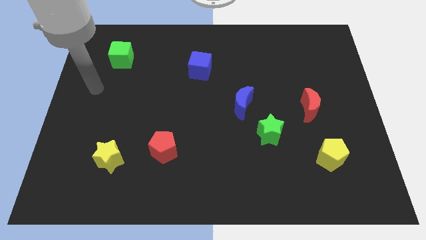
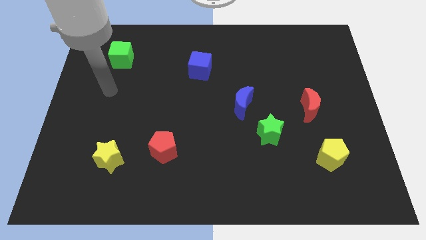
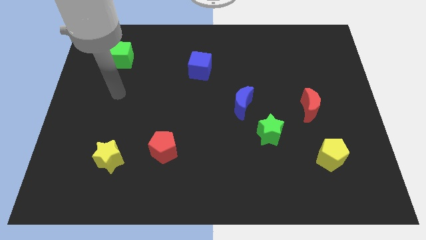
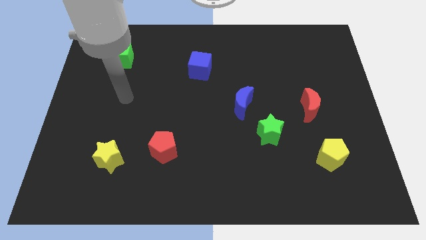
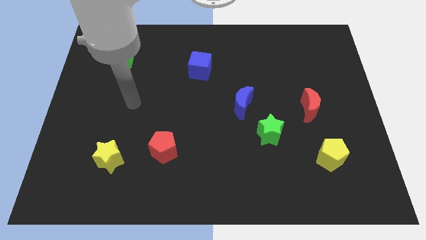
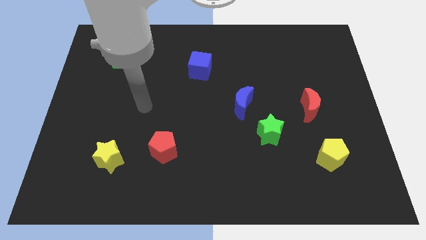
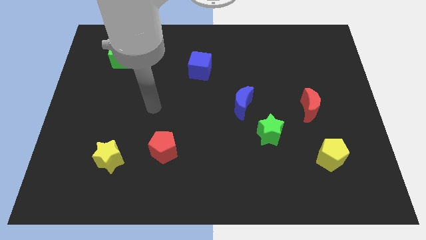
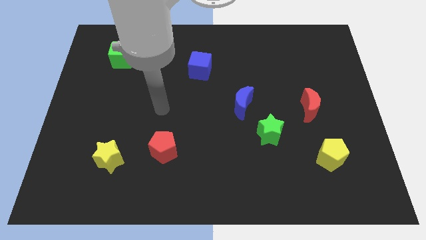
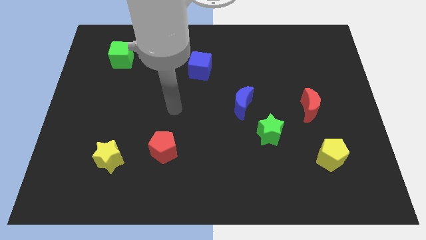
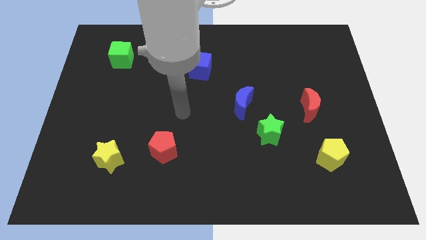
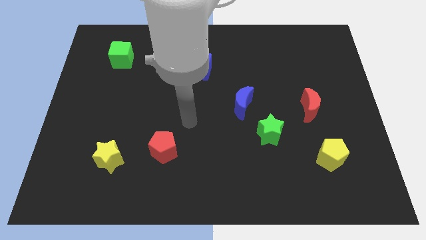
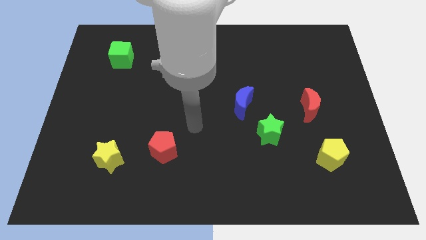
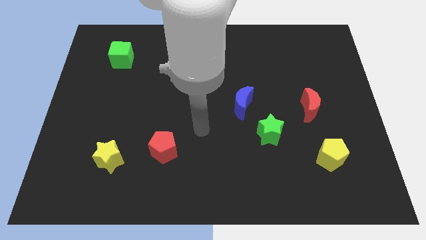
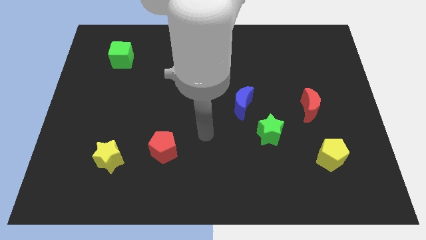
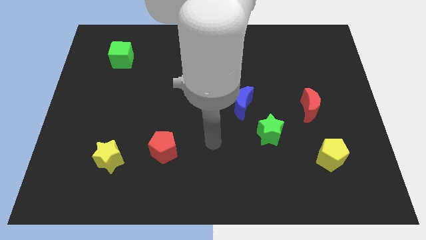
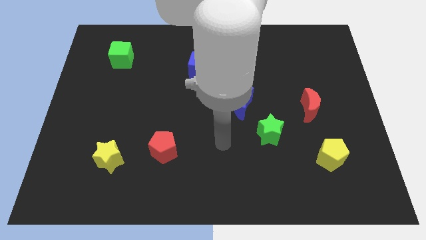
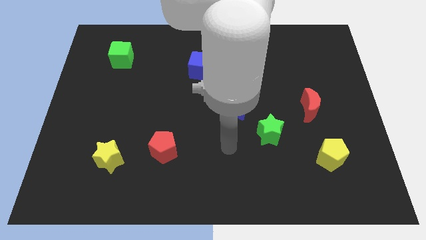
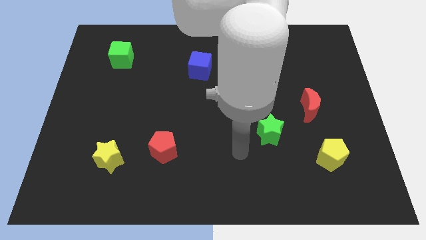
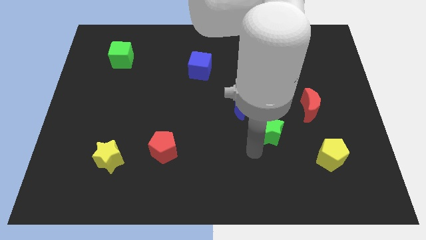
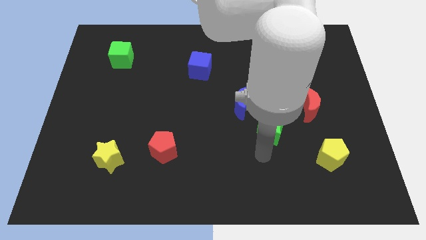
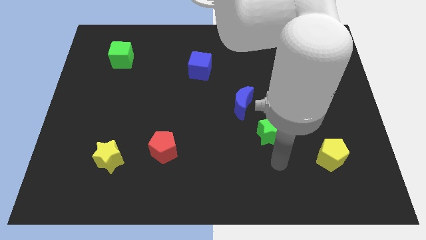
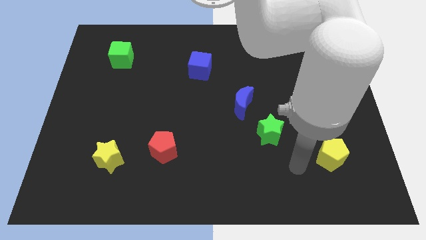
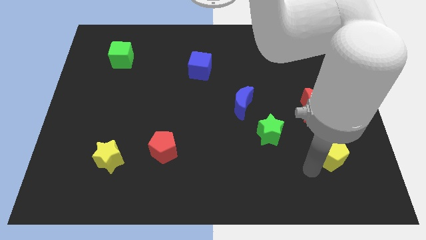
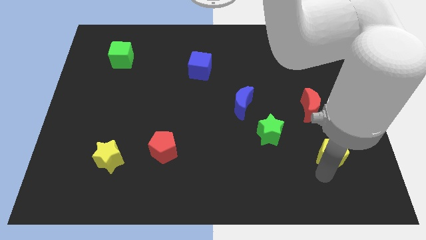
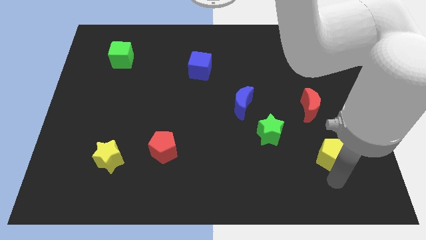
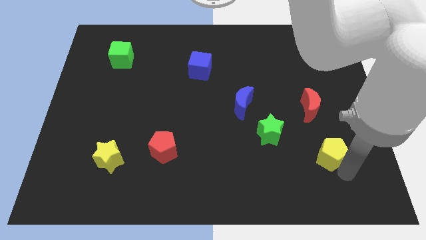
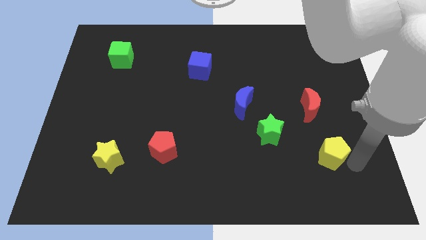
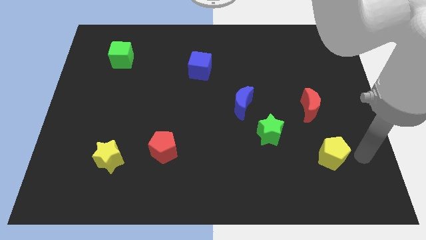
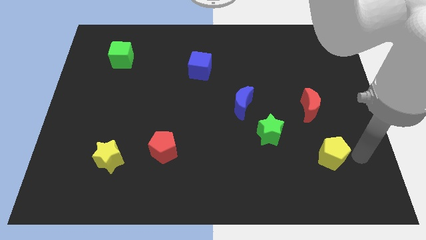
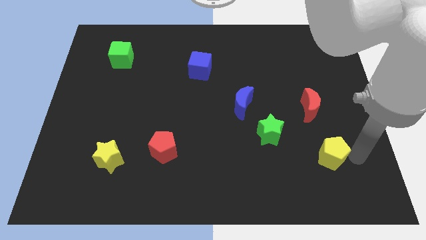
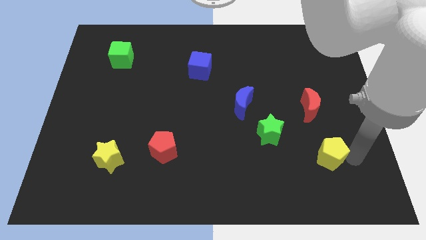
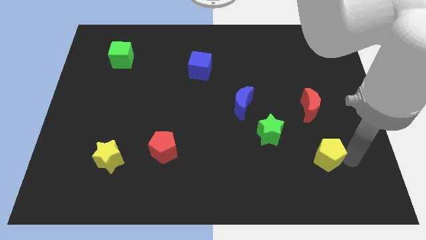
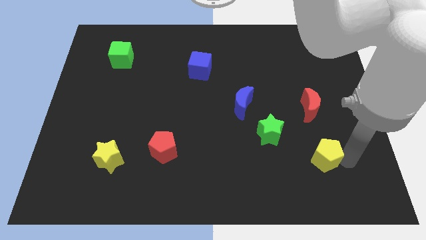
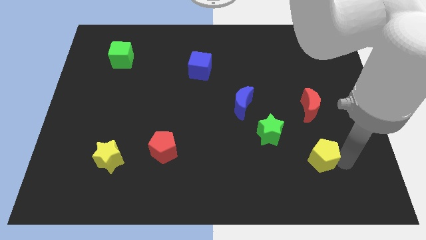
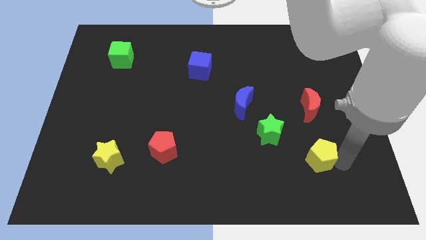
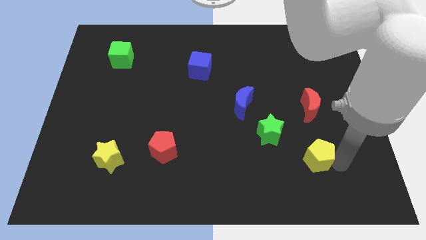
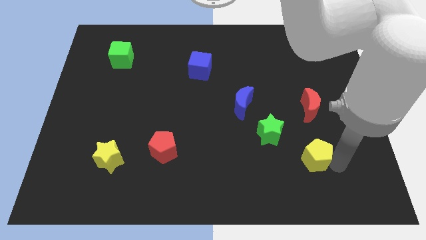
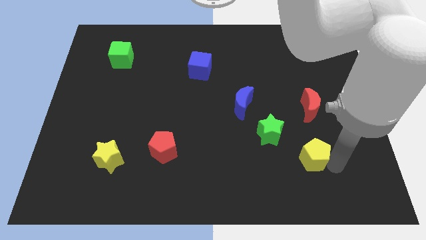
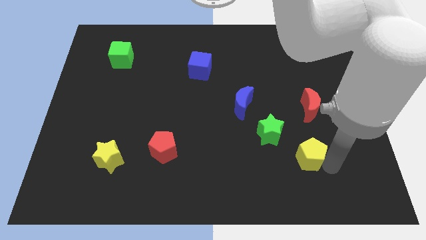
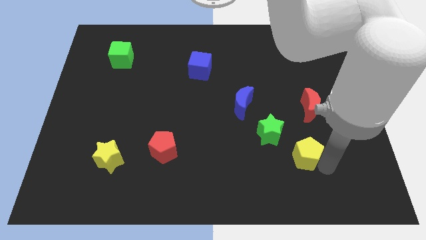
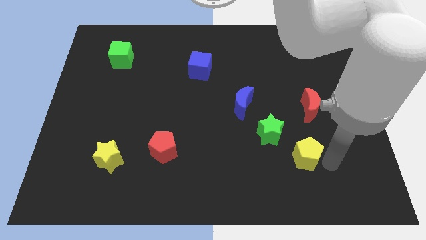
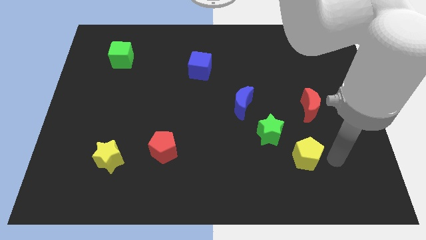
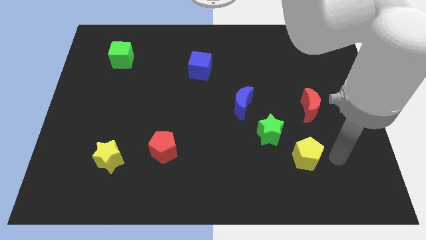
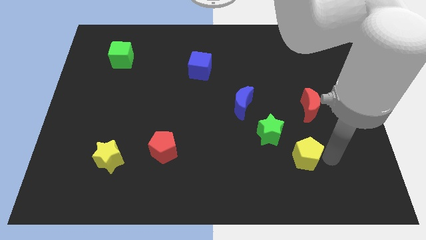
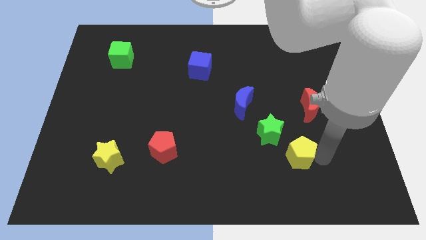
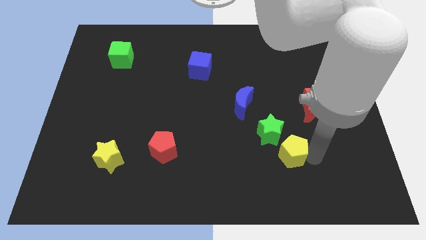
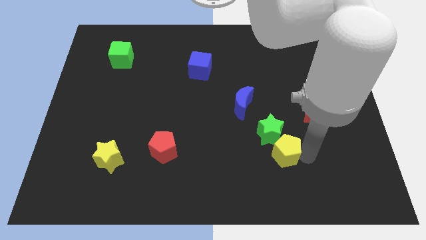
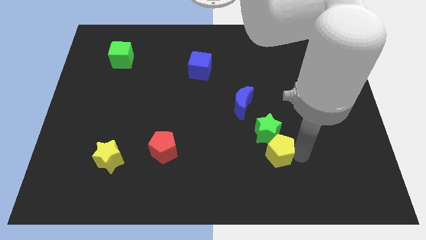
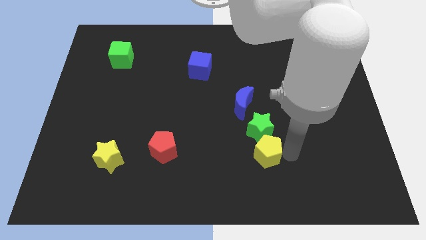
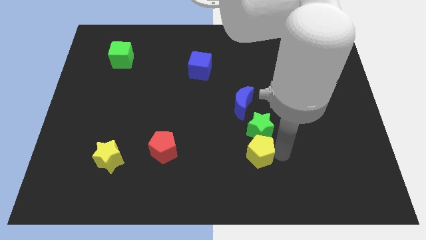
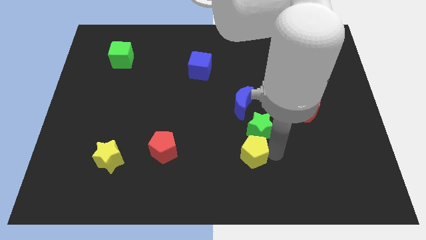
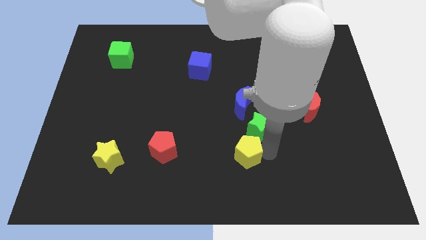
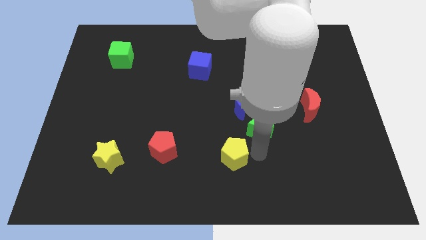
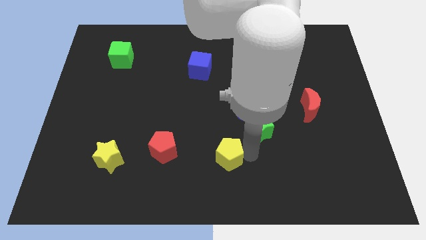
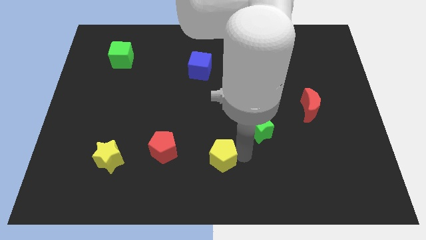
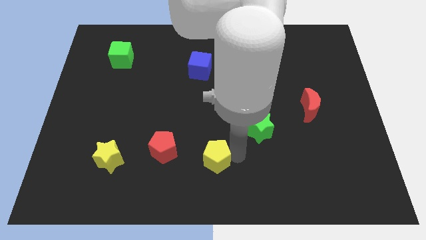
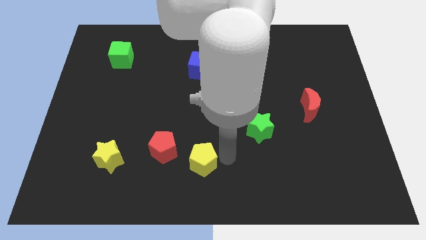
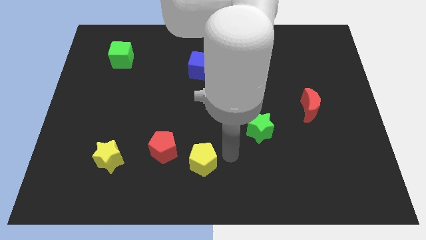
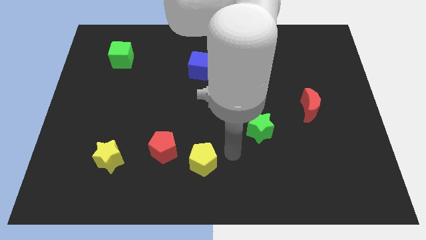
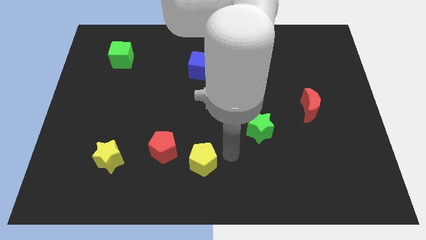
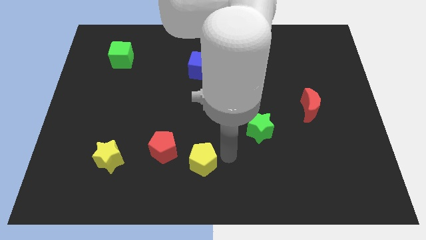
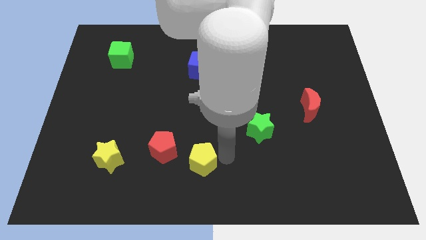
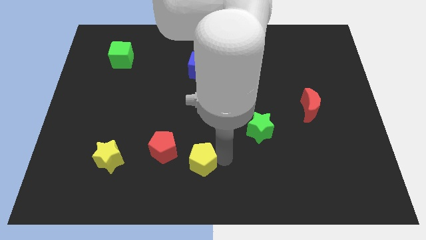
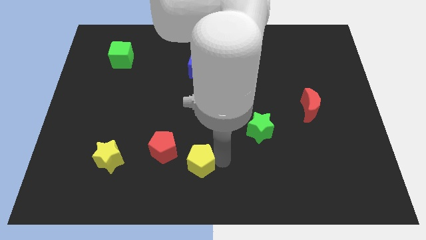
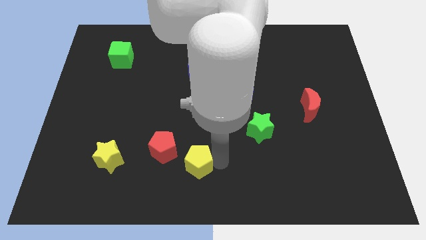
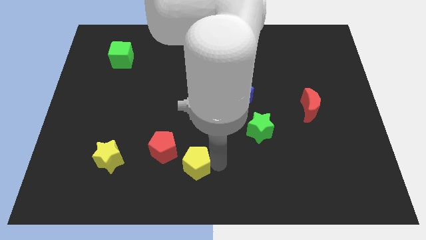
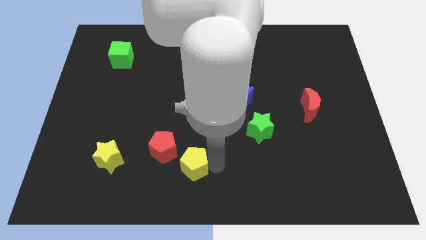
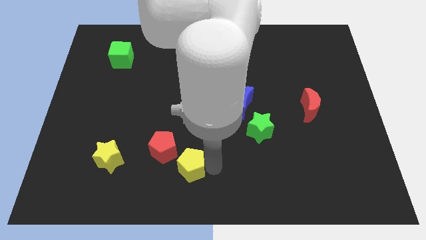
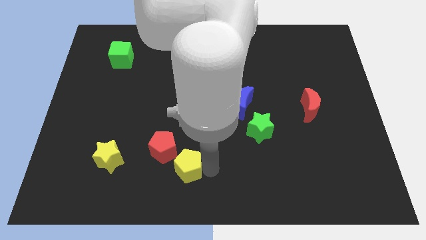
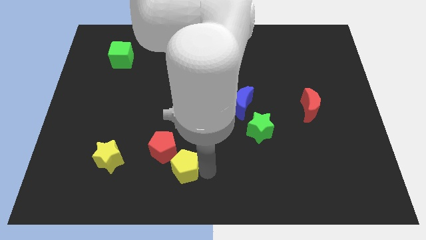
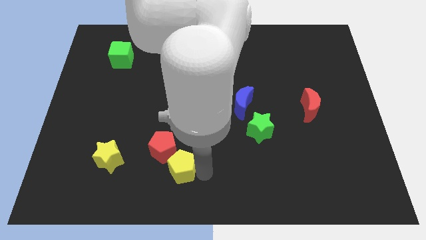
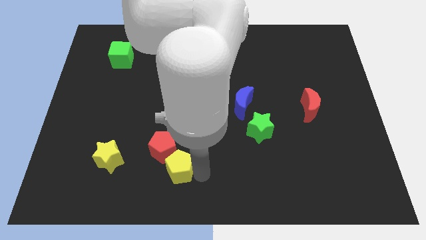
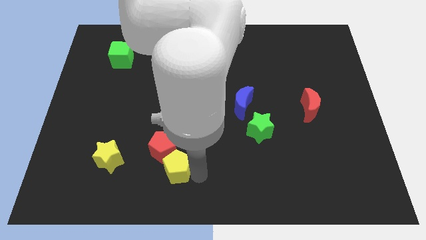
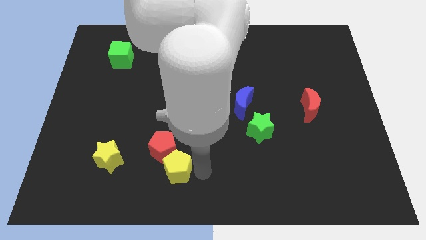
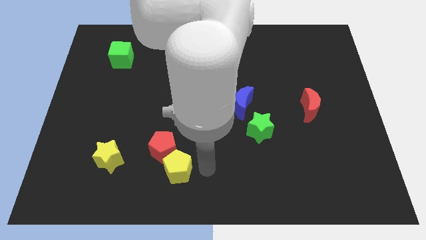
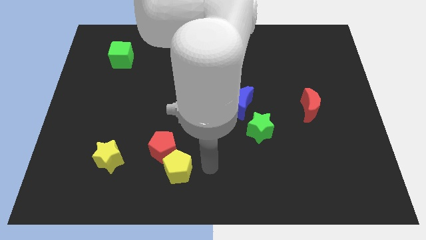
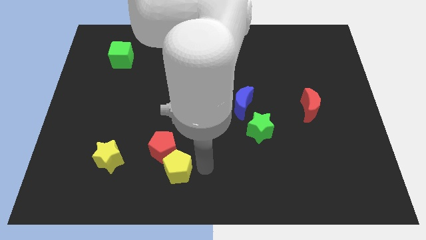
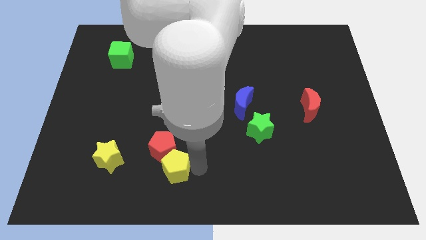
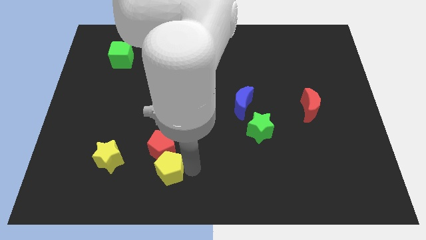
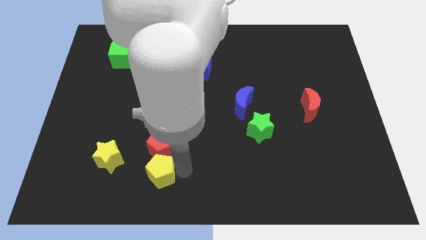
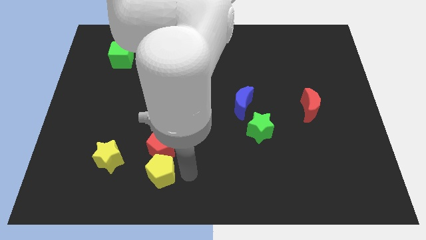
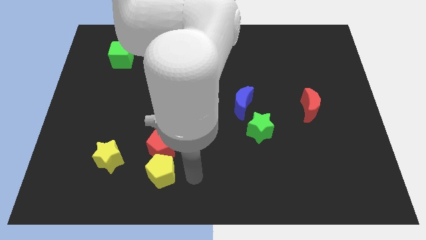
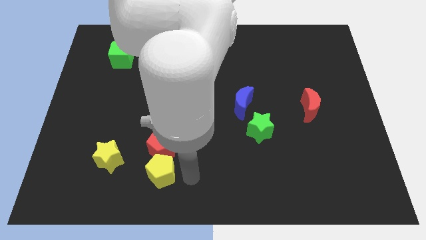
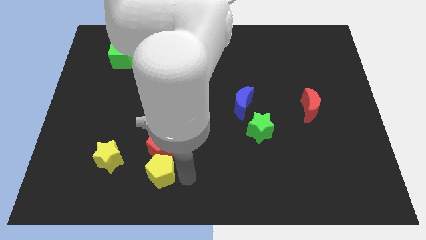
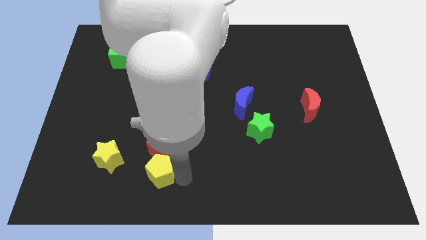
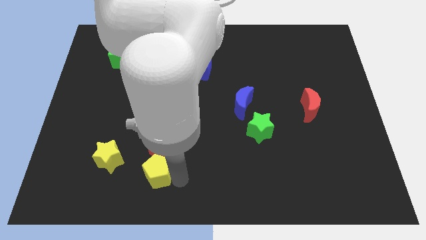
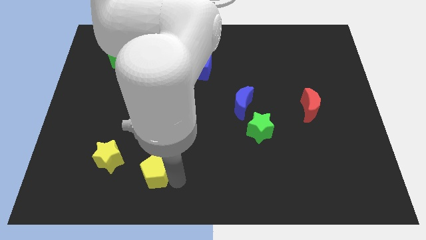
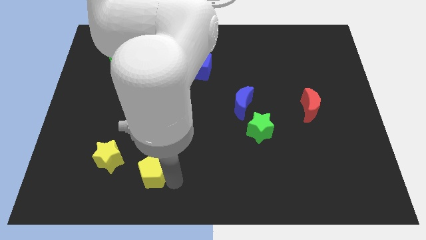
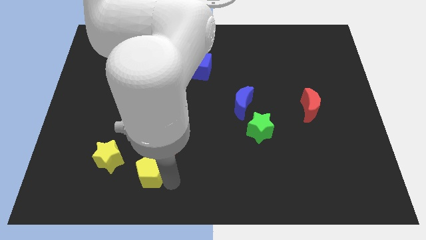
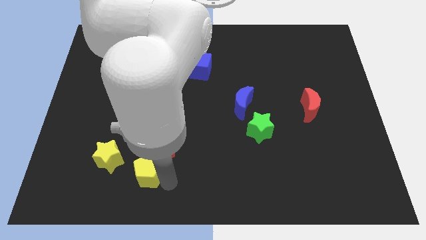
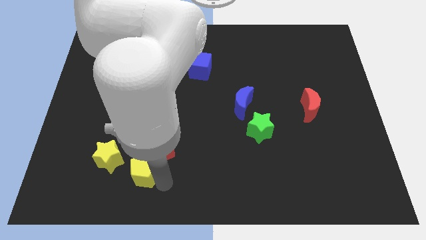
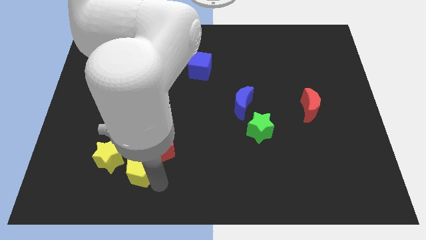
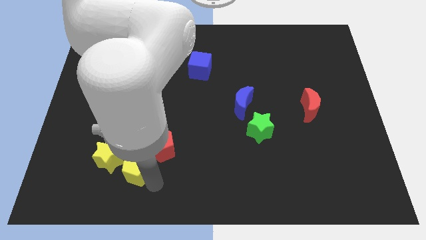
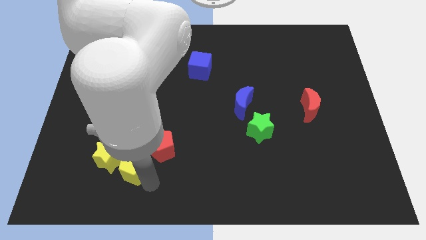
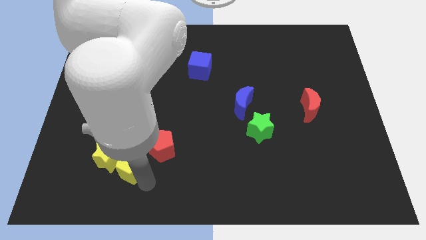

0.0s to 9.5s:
put the yellow pentagon next to the yellow star
